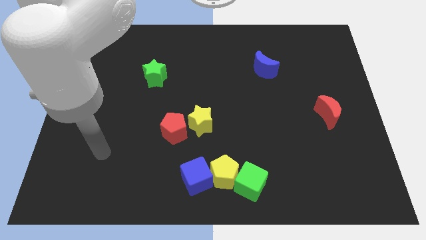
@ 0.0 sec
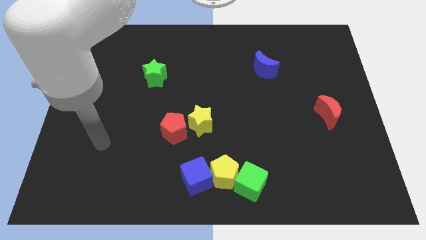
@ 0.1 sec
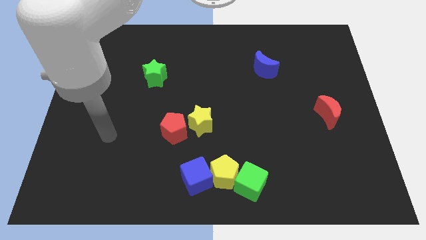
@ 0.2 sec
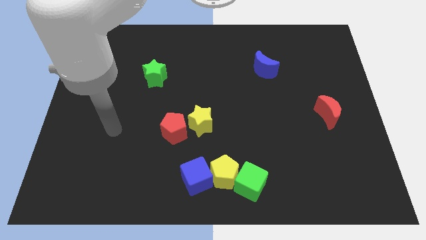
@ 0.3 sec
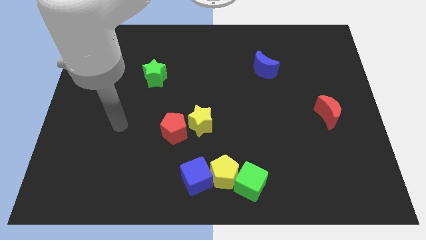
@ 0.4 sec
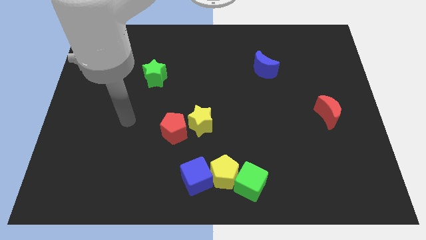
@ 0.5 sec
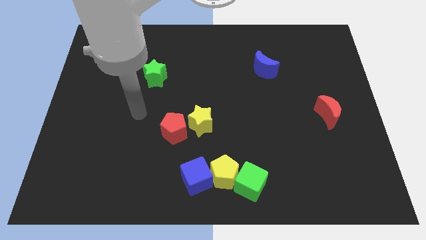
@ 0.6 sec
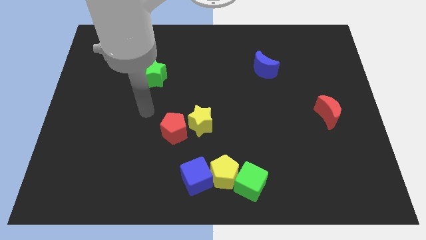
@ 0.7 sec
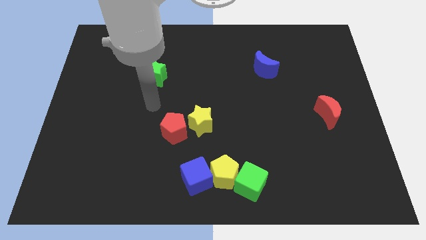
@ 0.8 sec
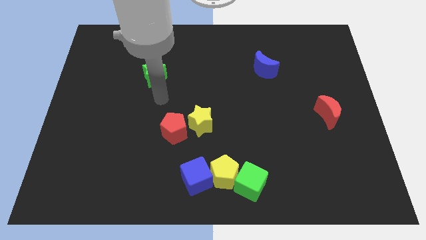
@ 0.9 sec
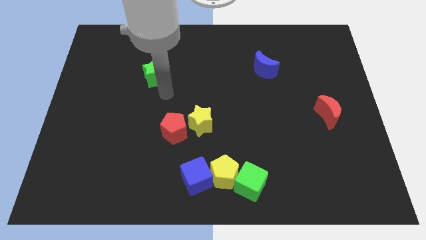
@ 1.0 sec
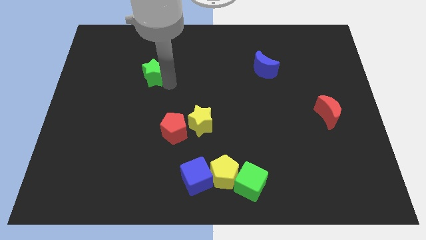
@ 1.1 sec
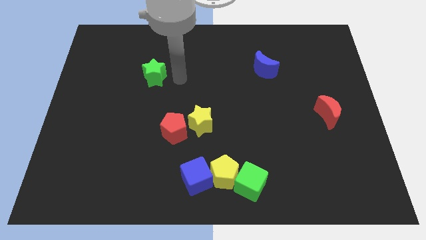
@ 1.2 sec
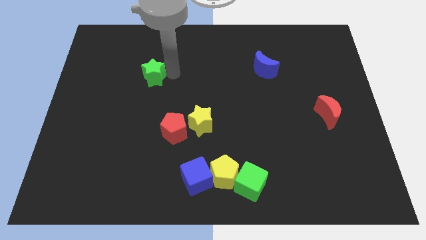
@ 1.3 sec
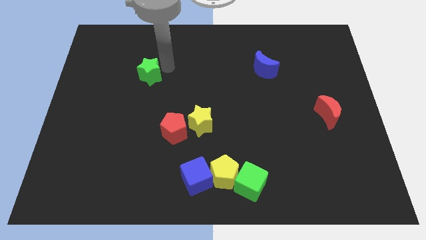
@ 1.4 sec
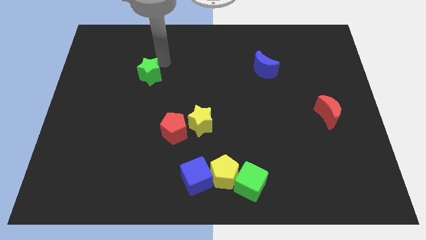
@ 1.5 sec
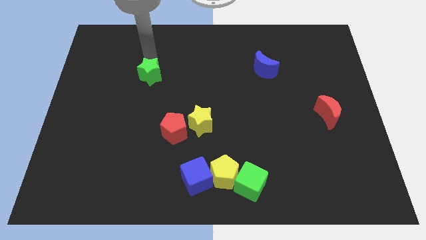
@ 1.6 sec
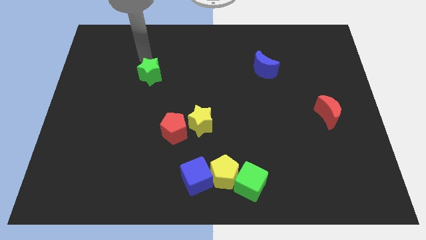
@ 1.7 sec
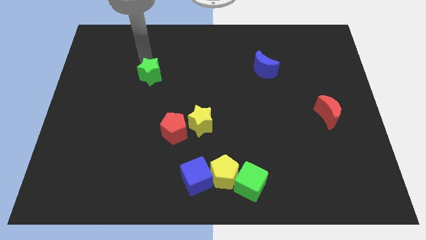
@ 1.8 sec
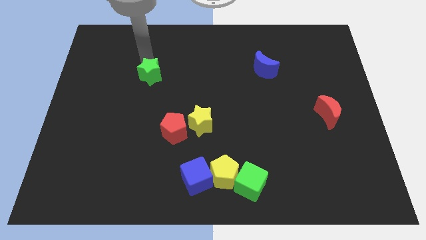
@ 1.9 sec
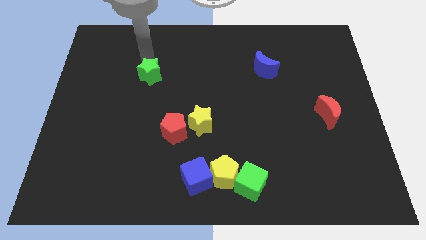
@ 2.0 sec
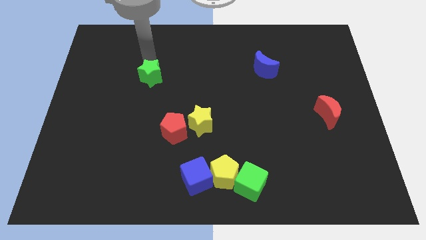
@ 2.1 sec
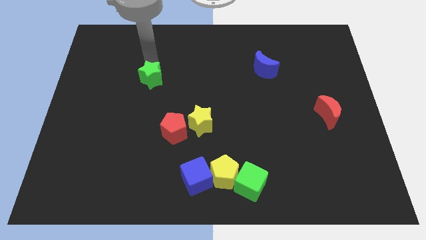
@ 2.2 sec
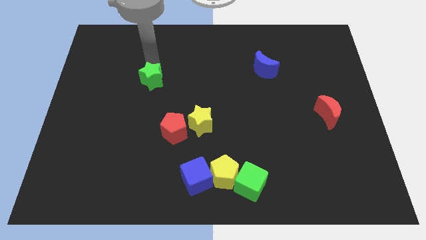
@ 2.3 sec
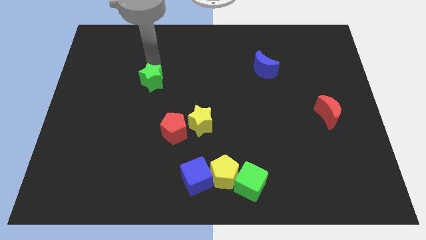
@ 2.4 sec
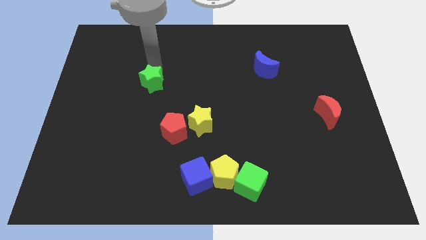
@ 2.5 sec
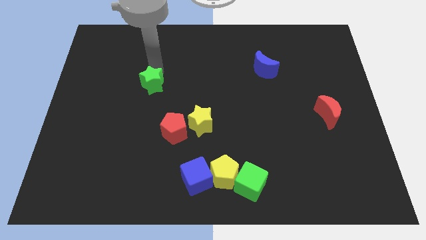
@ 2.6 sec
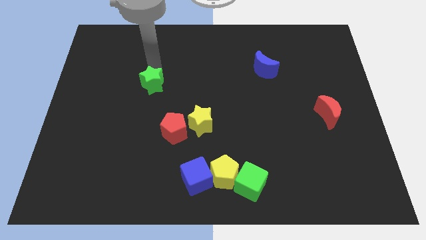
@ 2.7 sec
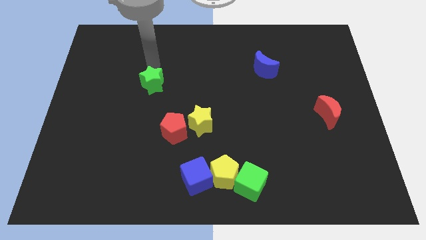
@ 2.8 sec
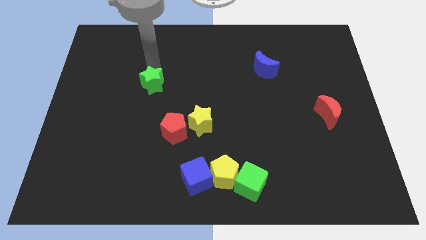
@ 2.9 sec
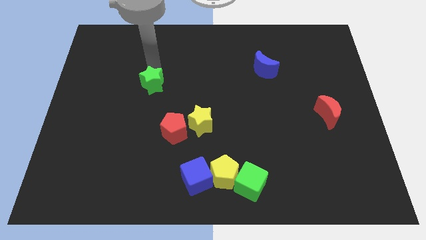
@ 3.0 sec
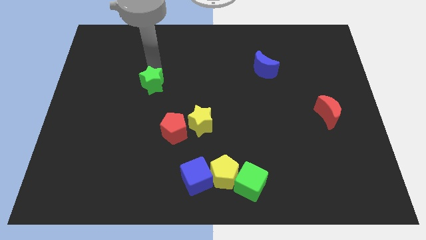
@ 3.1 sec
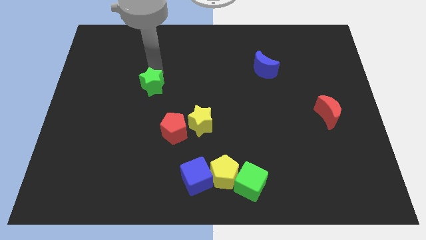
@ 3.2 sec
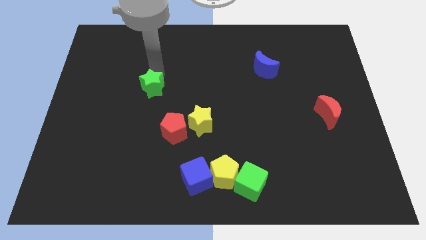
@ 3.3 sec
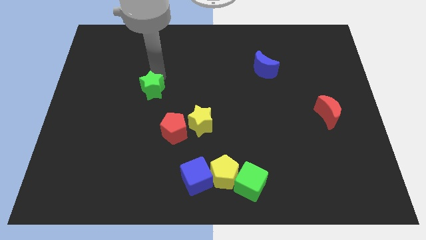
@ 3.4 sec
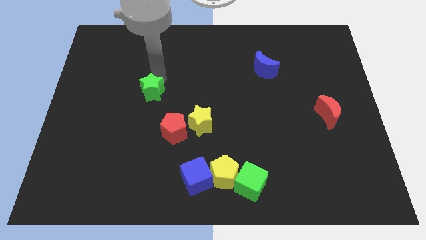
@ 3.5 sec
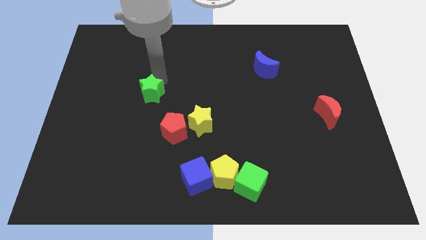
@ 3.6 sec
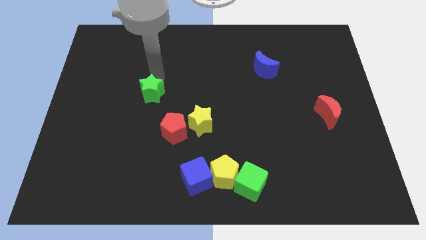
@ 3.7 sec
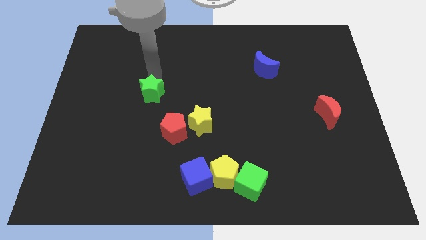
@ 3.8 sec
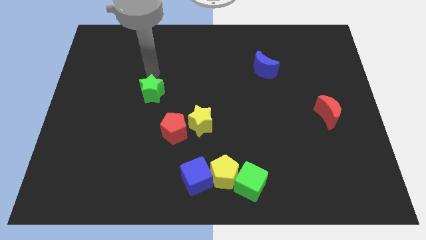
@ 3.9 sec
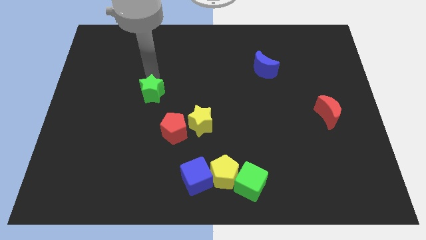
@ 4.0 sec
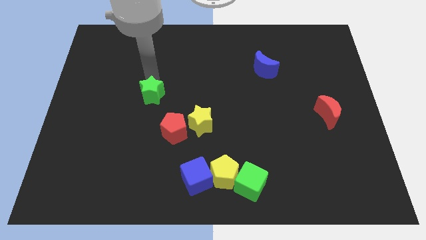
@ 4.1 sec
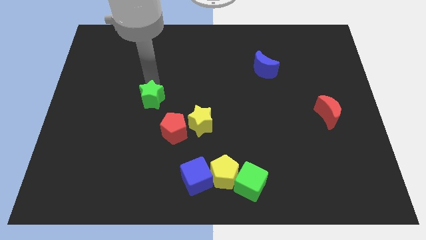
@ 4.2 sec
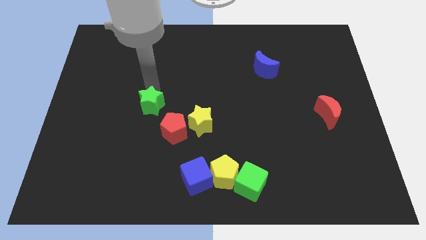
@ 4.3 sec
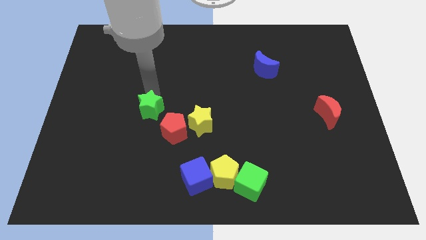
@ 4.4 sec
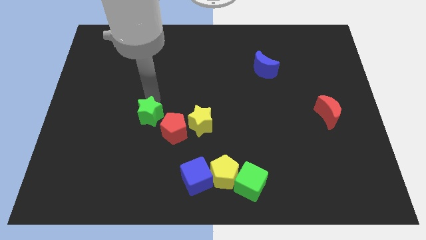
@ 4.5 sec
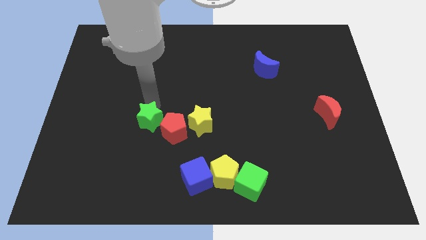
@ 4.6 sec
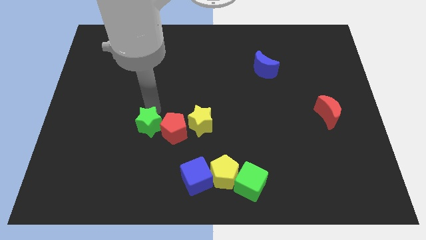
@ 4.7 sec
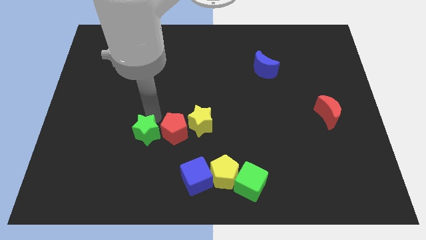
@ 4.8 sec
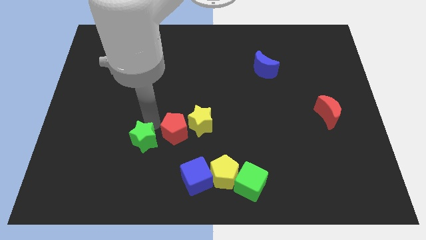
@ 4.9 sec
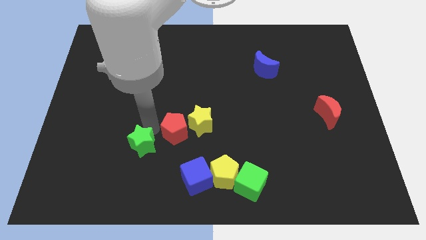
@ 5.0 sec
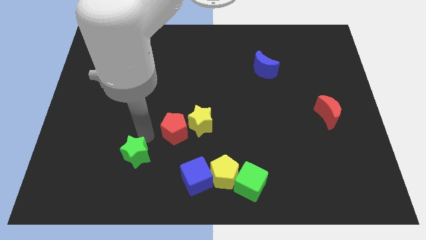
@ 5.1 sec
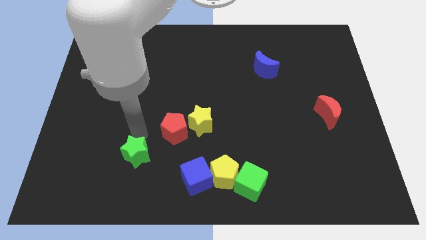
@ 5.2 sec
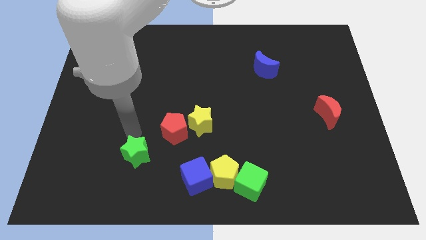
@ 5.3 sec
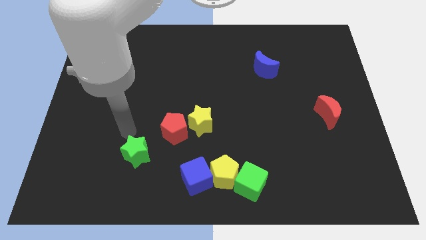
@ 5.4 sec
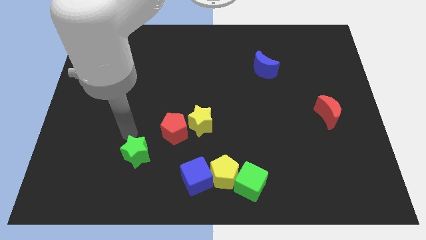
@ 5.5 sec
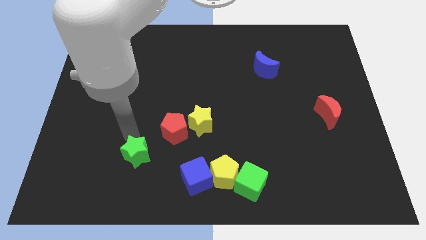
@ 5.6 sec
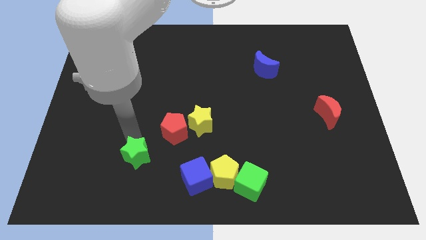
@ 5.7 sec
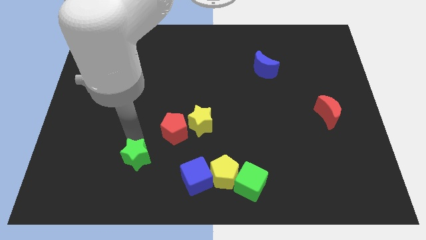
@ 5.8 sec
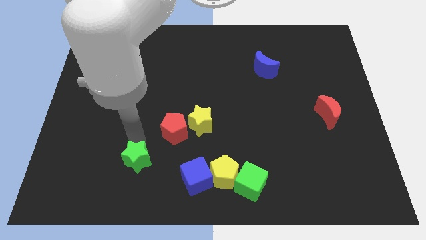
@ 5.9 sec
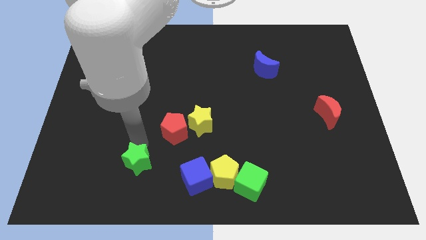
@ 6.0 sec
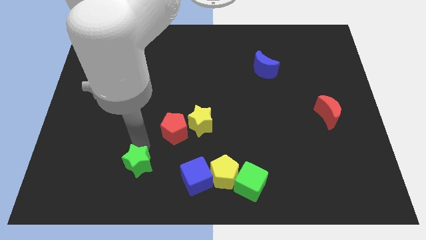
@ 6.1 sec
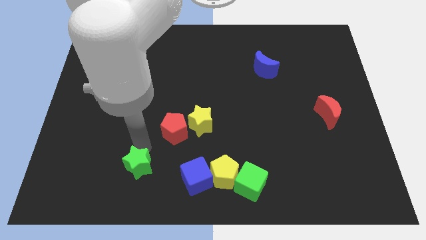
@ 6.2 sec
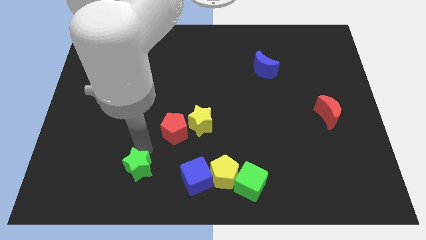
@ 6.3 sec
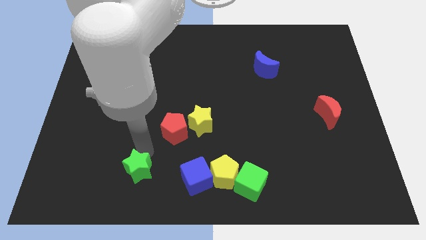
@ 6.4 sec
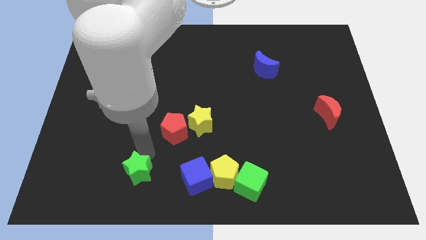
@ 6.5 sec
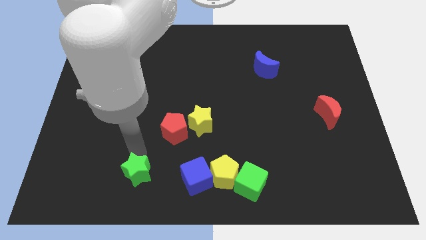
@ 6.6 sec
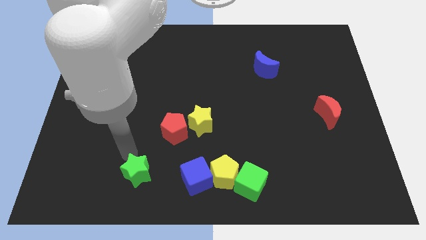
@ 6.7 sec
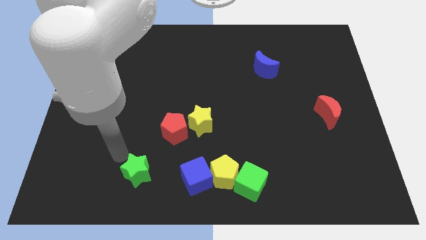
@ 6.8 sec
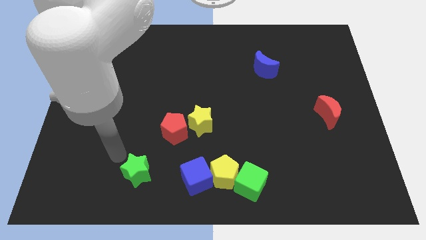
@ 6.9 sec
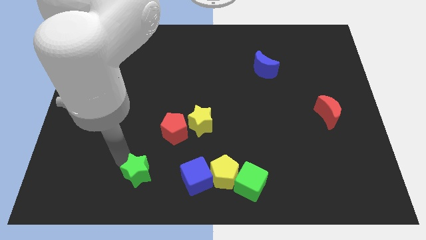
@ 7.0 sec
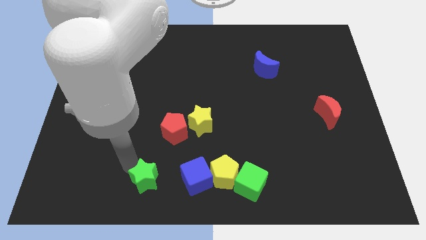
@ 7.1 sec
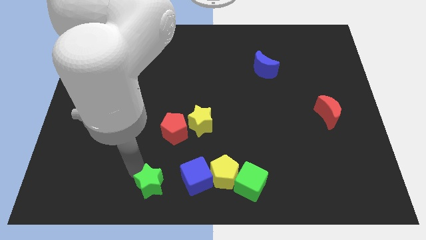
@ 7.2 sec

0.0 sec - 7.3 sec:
slide the green star to the bottom
